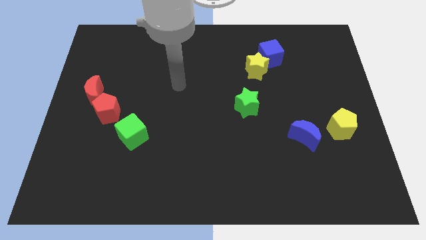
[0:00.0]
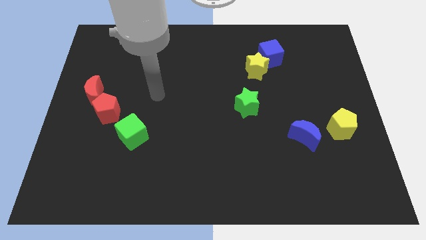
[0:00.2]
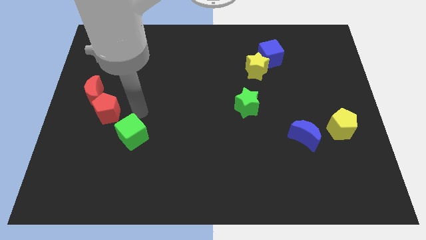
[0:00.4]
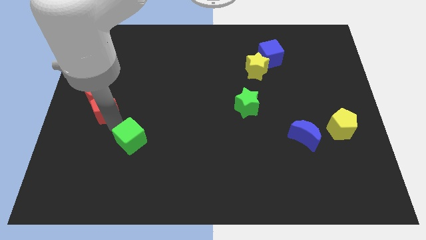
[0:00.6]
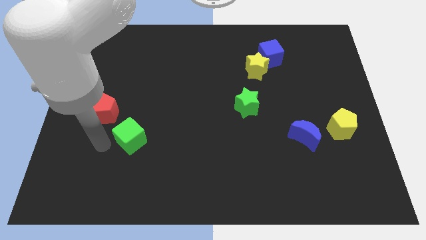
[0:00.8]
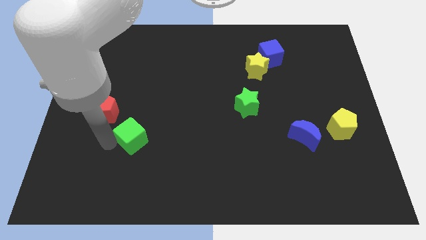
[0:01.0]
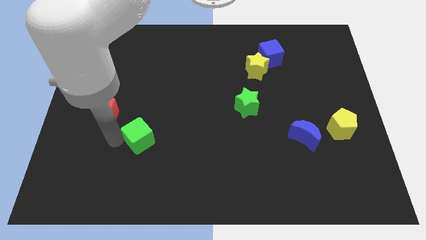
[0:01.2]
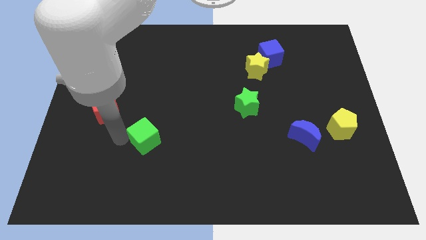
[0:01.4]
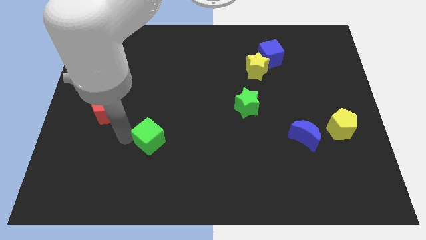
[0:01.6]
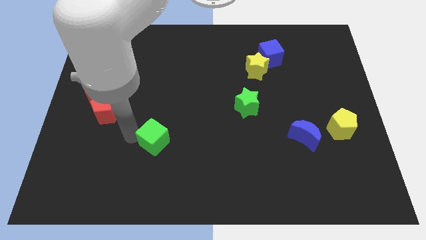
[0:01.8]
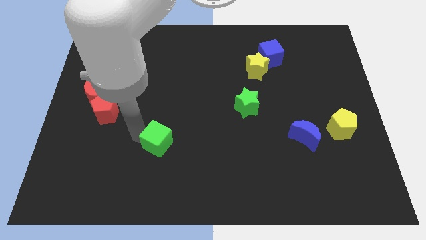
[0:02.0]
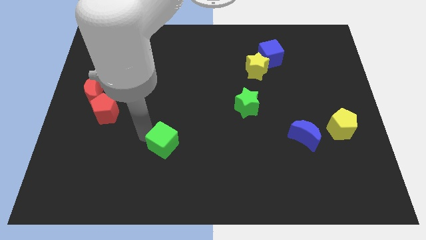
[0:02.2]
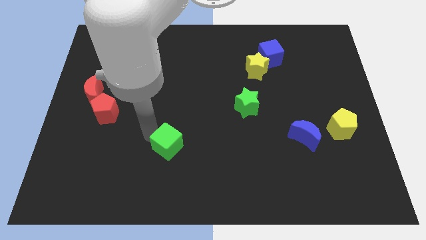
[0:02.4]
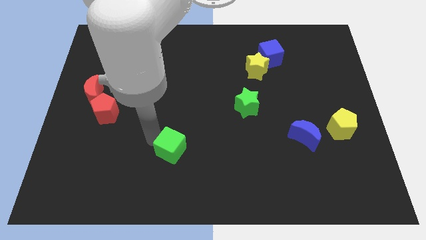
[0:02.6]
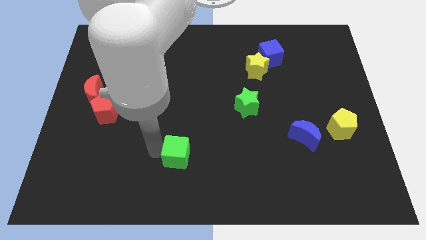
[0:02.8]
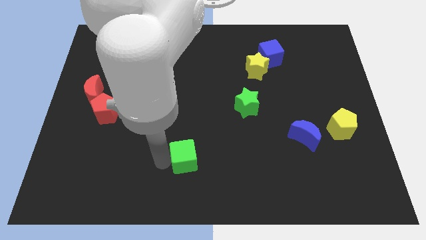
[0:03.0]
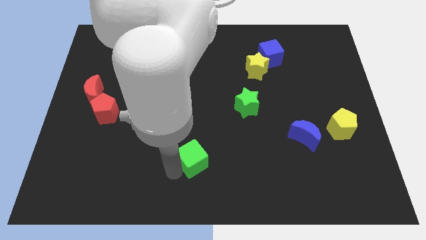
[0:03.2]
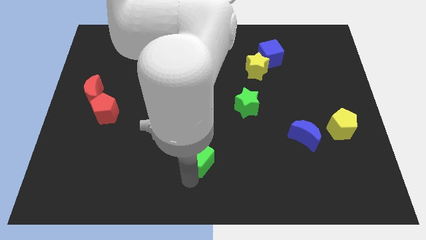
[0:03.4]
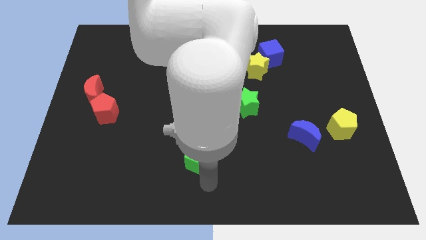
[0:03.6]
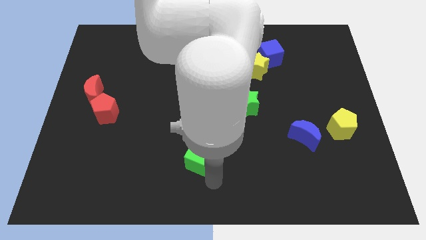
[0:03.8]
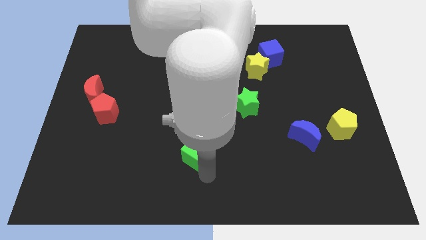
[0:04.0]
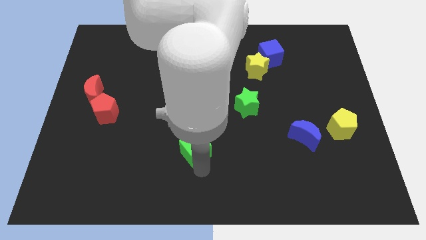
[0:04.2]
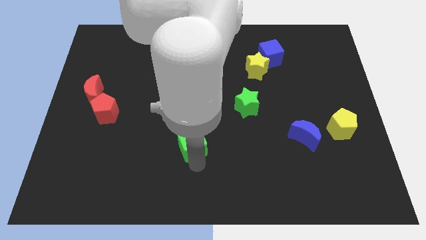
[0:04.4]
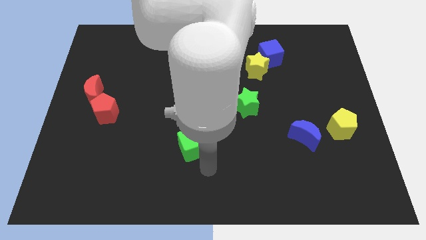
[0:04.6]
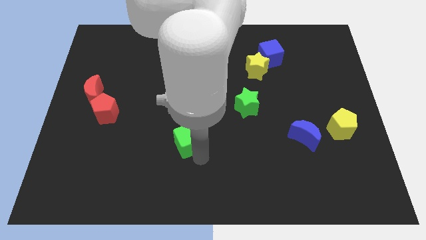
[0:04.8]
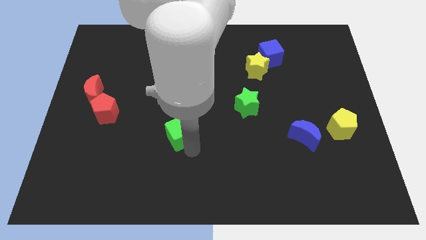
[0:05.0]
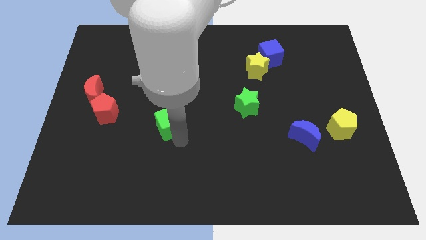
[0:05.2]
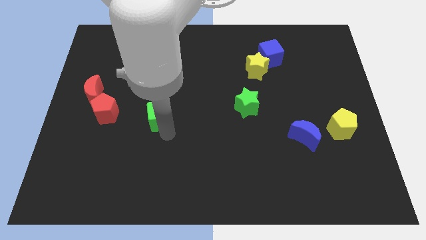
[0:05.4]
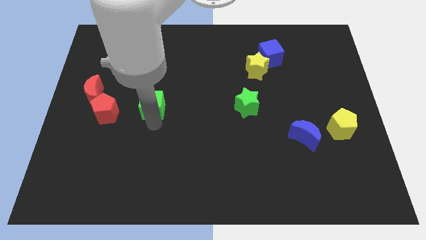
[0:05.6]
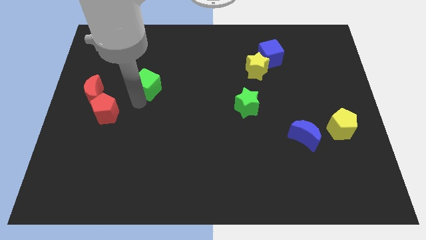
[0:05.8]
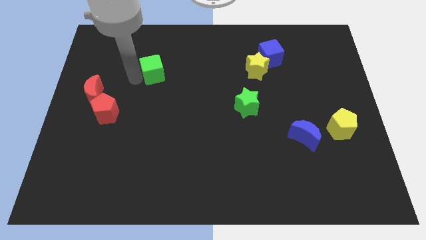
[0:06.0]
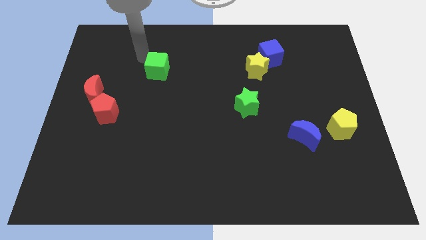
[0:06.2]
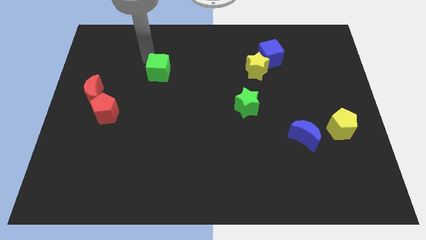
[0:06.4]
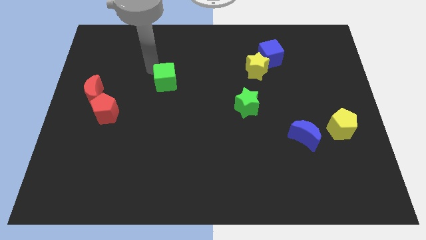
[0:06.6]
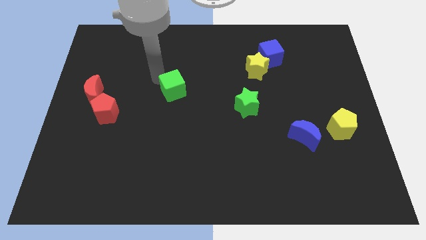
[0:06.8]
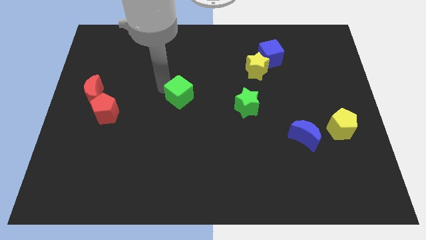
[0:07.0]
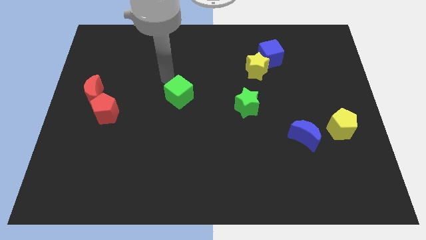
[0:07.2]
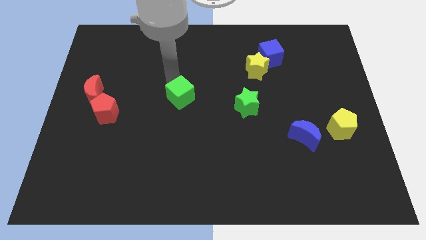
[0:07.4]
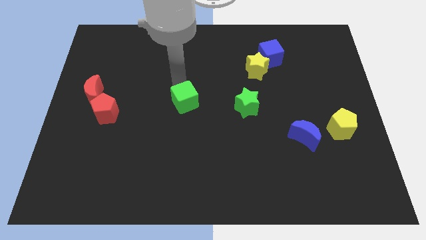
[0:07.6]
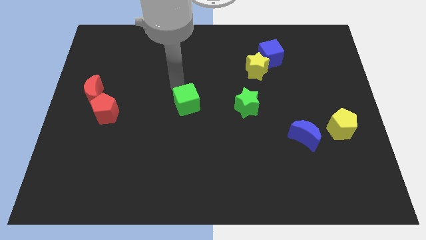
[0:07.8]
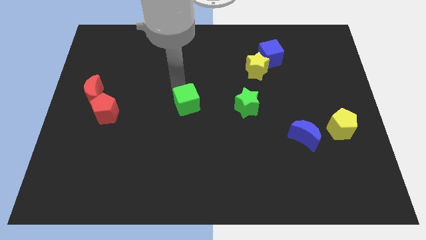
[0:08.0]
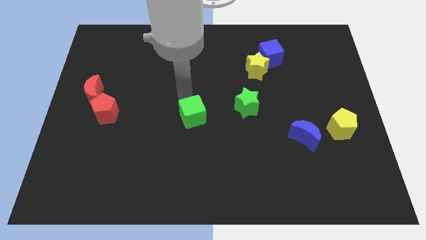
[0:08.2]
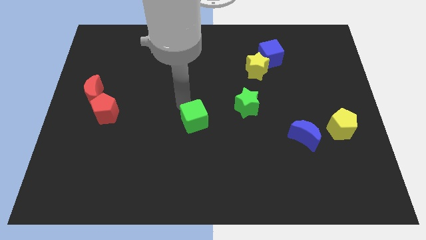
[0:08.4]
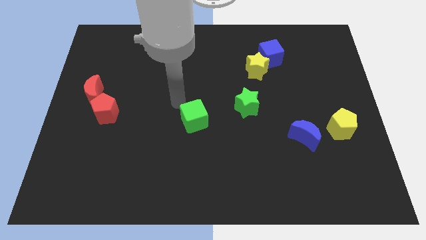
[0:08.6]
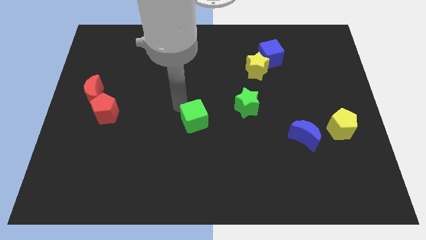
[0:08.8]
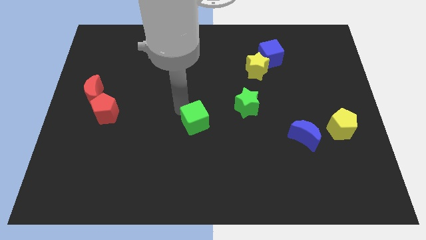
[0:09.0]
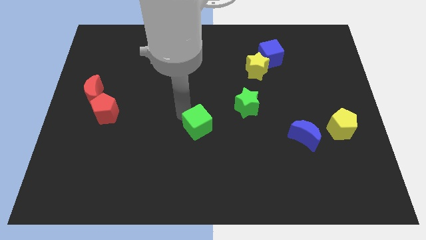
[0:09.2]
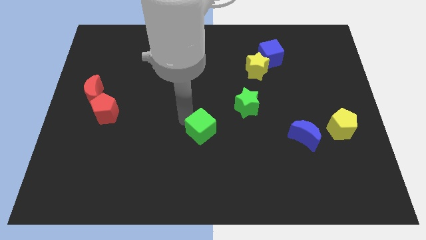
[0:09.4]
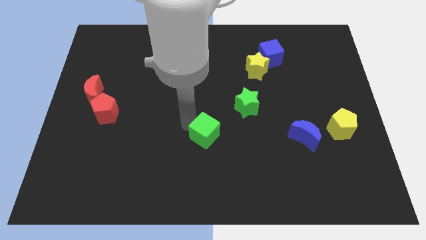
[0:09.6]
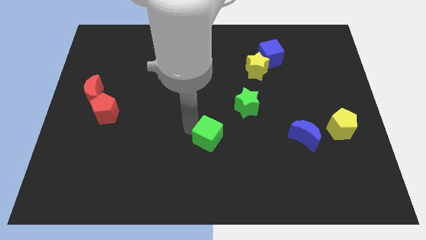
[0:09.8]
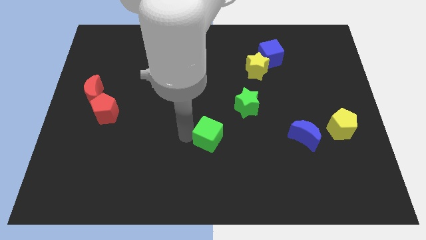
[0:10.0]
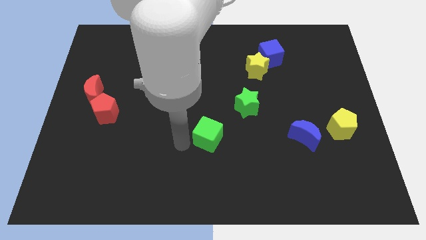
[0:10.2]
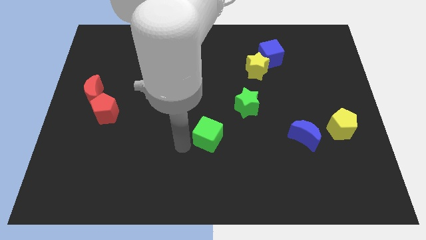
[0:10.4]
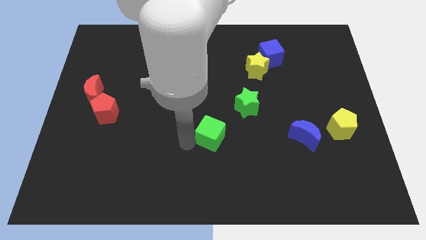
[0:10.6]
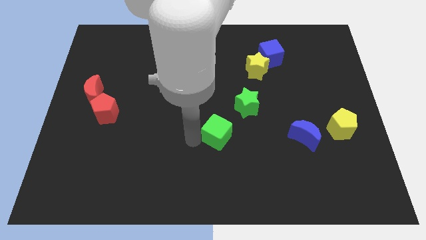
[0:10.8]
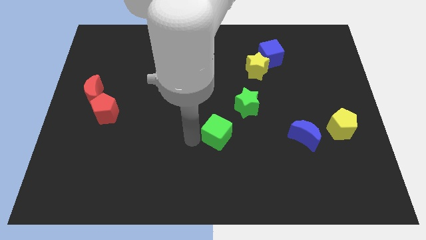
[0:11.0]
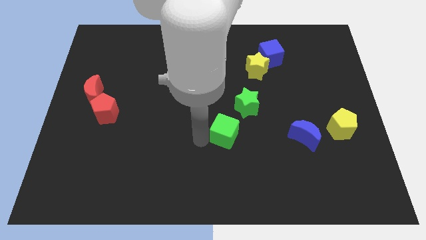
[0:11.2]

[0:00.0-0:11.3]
slide the green cube to the right

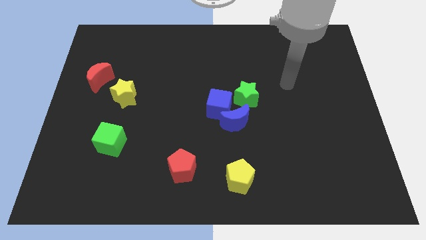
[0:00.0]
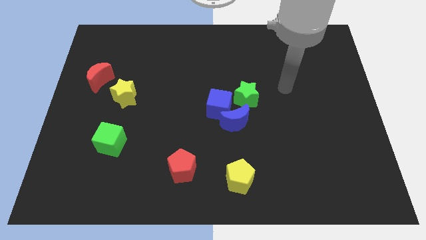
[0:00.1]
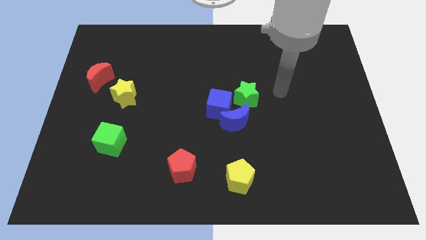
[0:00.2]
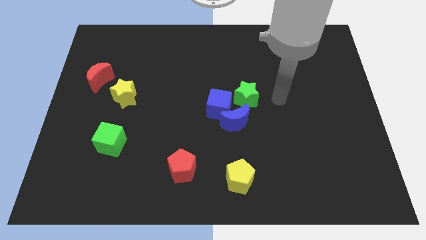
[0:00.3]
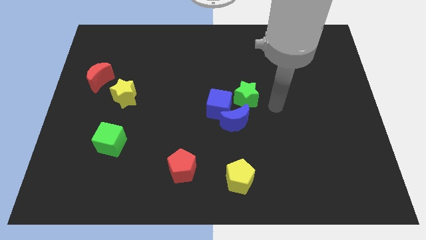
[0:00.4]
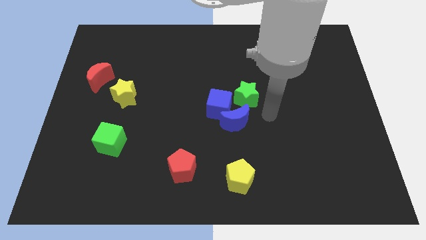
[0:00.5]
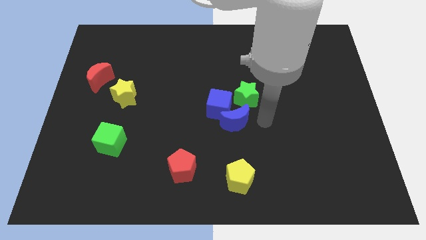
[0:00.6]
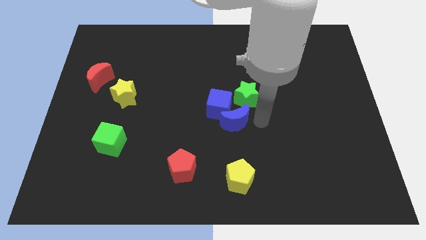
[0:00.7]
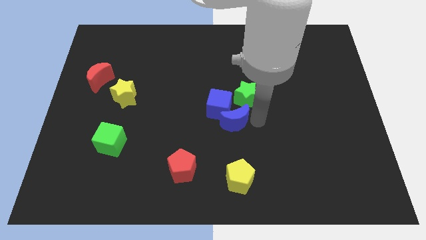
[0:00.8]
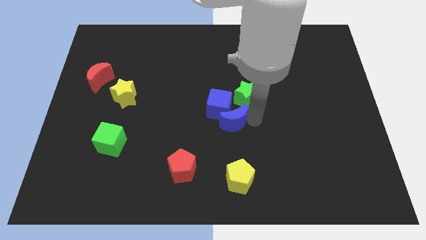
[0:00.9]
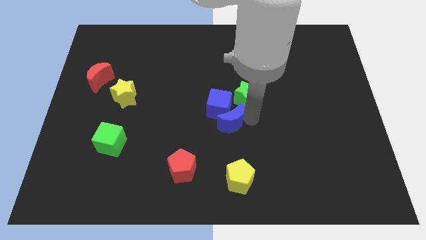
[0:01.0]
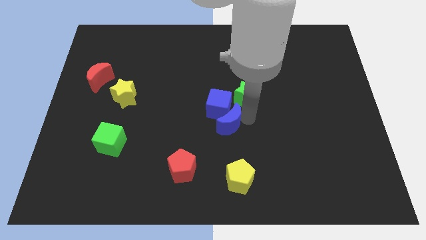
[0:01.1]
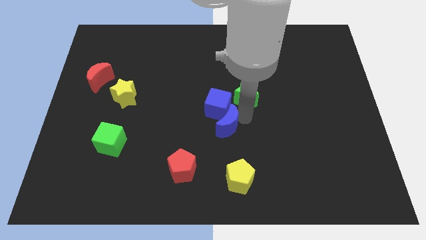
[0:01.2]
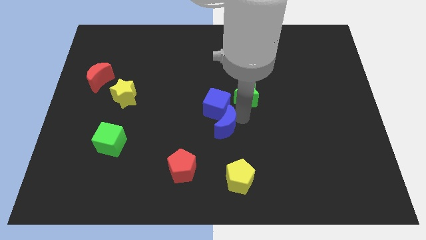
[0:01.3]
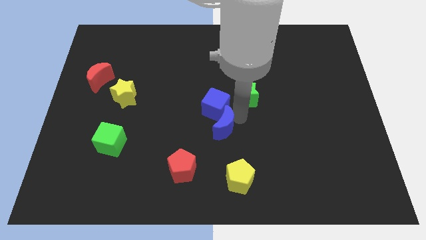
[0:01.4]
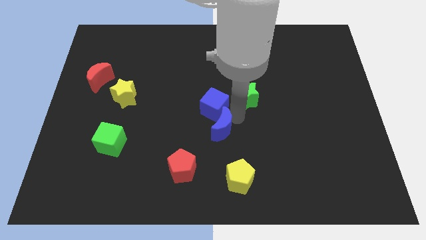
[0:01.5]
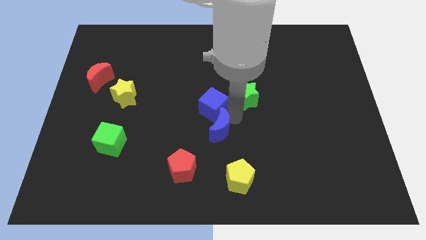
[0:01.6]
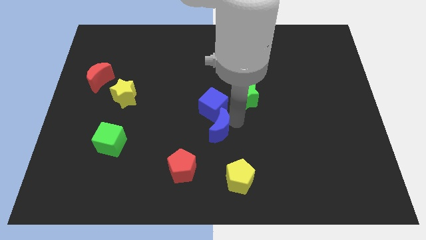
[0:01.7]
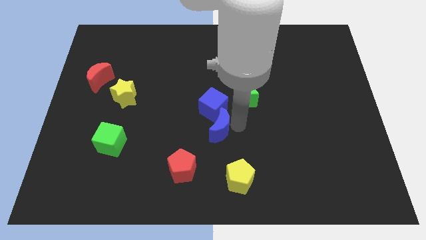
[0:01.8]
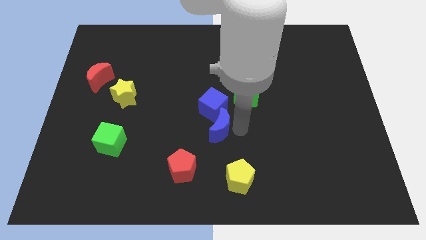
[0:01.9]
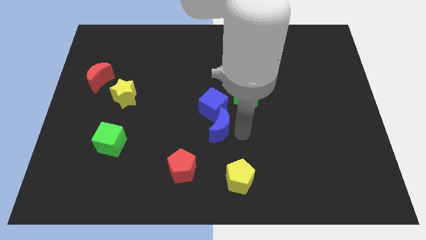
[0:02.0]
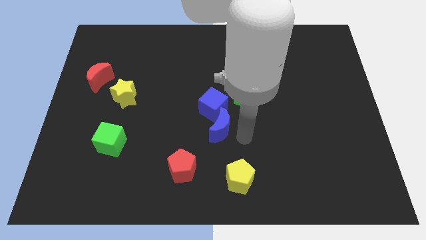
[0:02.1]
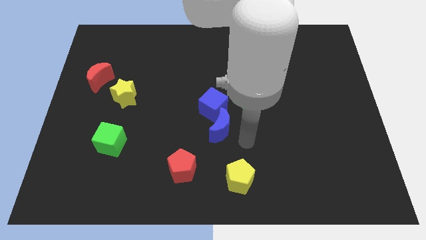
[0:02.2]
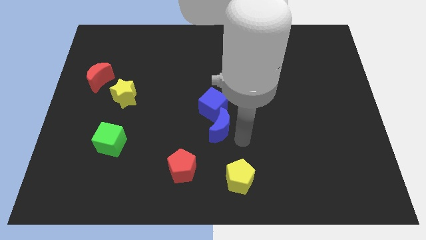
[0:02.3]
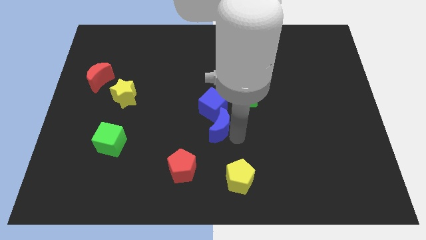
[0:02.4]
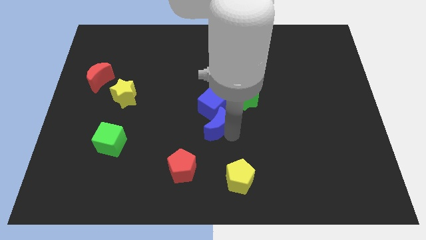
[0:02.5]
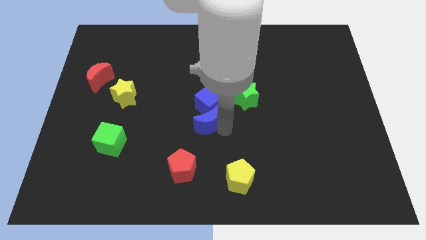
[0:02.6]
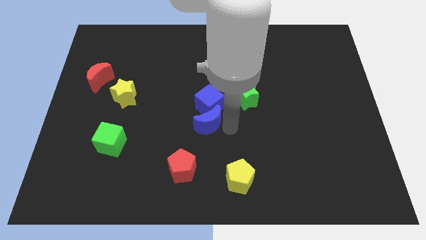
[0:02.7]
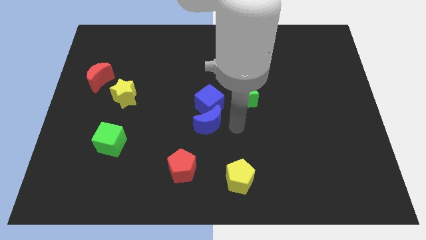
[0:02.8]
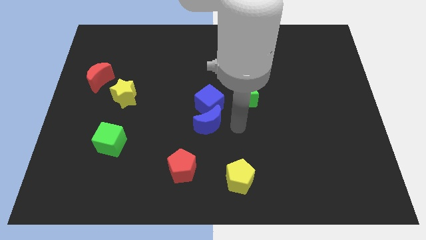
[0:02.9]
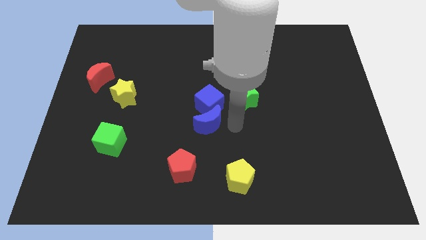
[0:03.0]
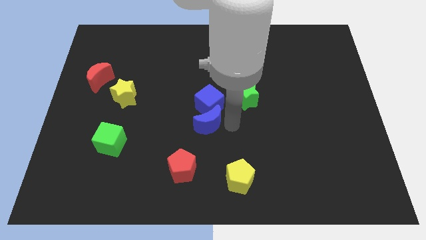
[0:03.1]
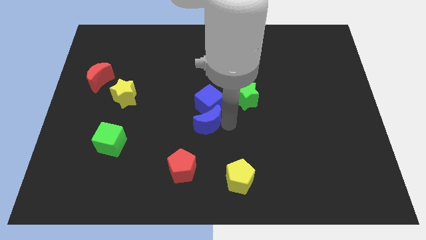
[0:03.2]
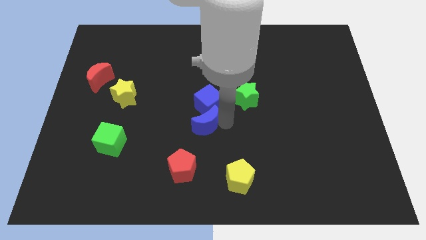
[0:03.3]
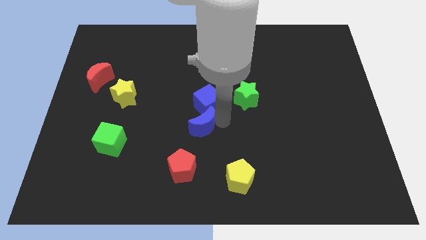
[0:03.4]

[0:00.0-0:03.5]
move the blue moon to the left a little bit
